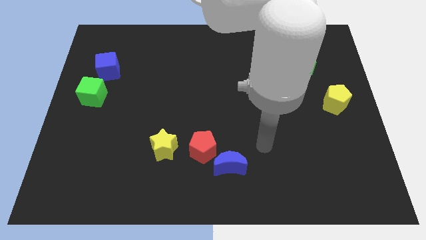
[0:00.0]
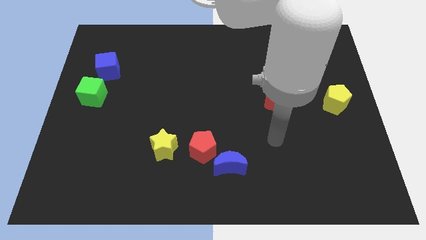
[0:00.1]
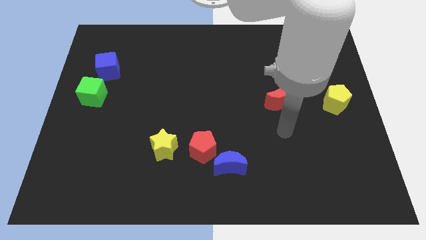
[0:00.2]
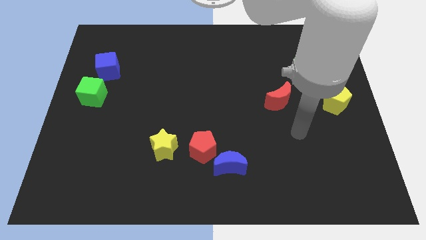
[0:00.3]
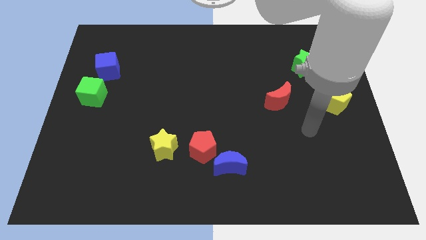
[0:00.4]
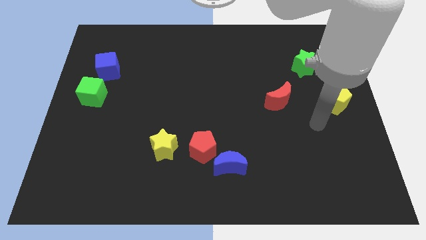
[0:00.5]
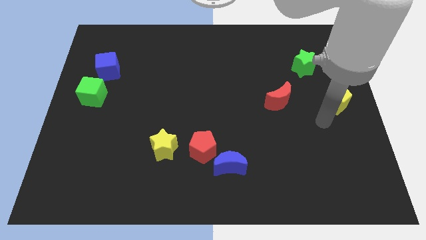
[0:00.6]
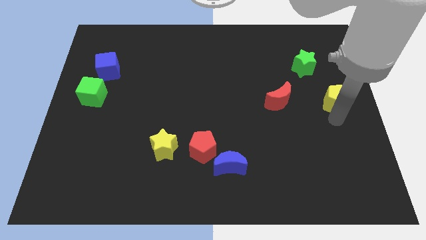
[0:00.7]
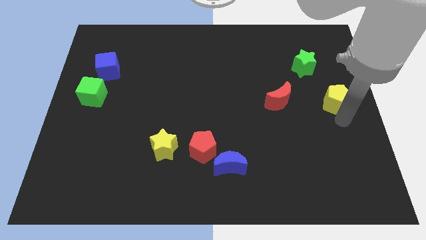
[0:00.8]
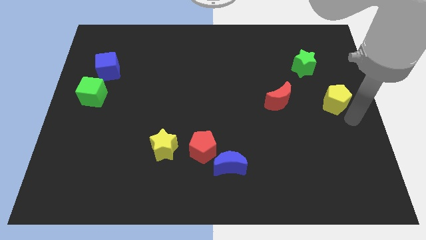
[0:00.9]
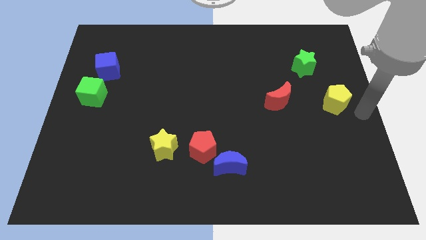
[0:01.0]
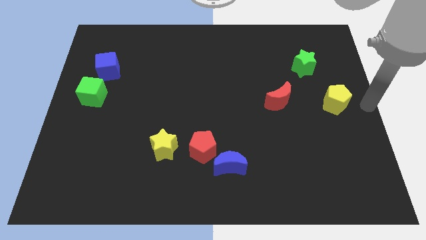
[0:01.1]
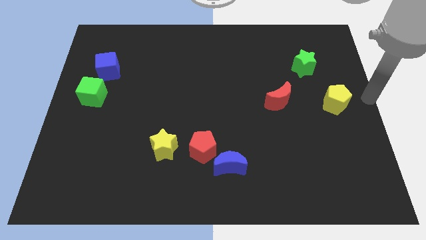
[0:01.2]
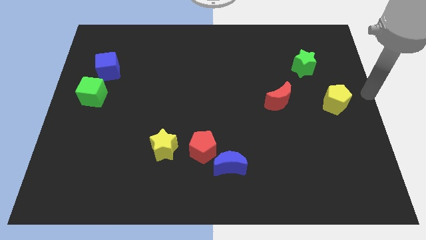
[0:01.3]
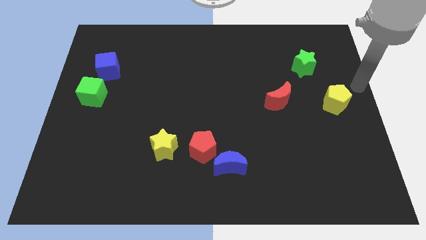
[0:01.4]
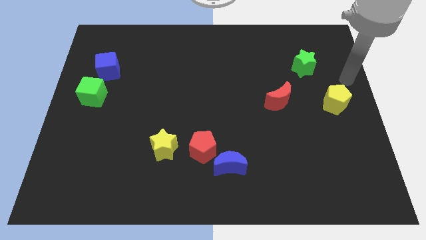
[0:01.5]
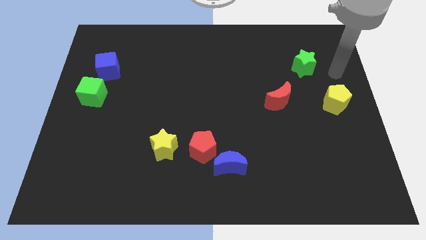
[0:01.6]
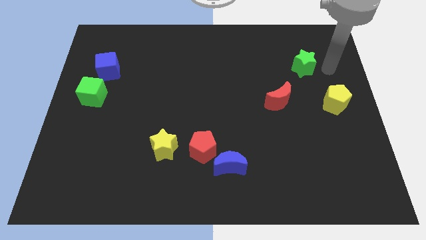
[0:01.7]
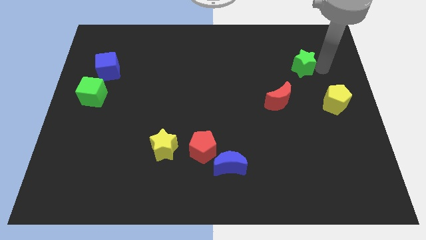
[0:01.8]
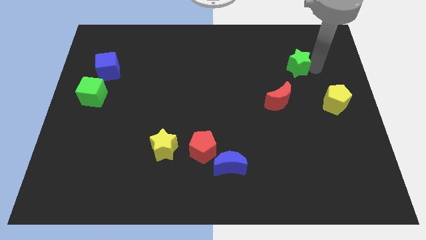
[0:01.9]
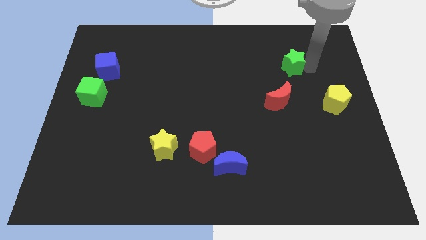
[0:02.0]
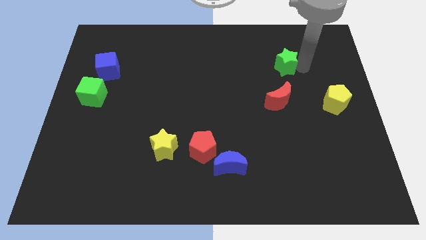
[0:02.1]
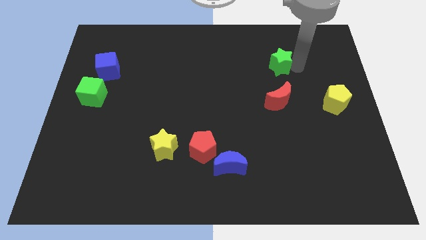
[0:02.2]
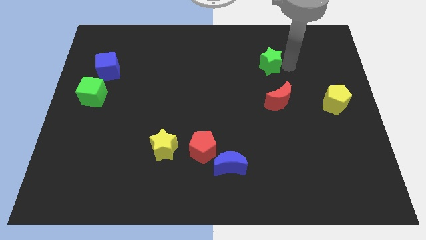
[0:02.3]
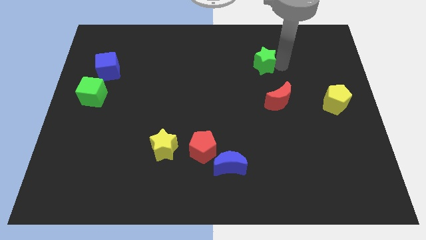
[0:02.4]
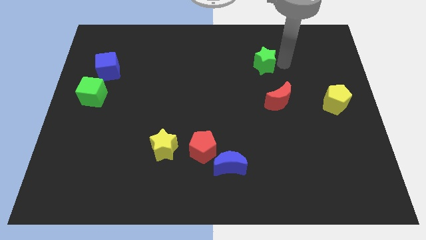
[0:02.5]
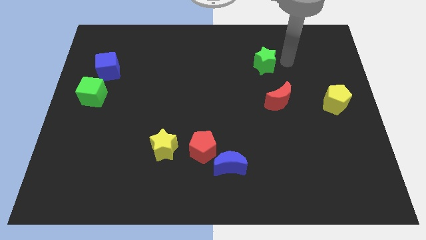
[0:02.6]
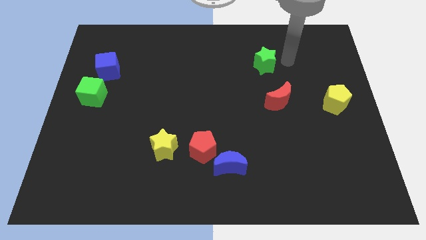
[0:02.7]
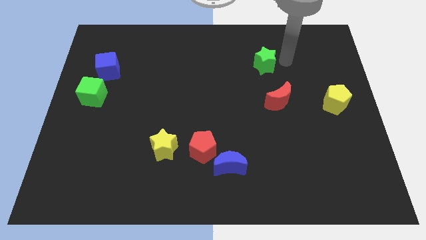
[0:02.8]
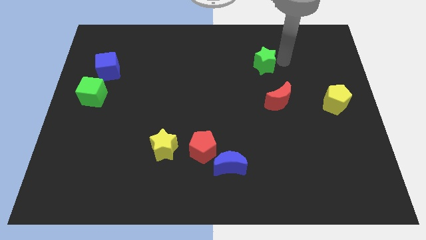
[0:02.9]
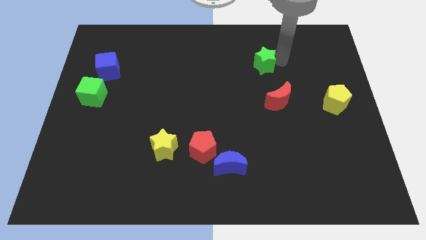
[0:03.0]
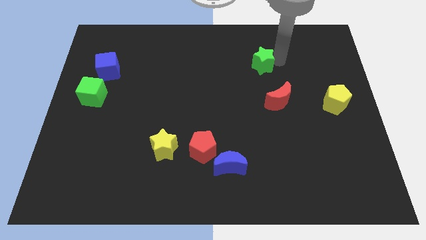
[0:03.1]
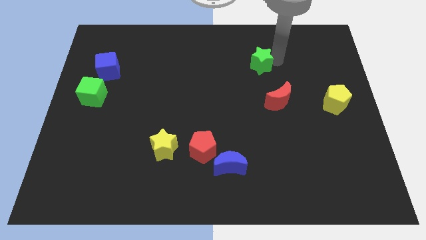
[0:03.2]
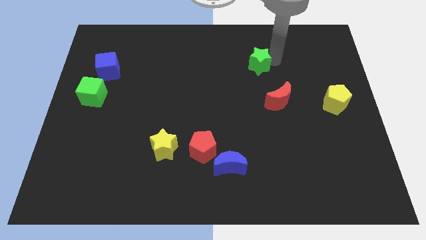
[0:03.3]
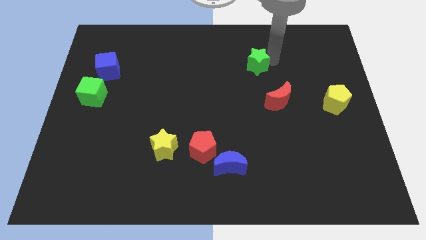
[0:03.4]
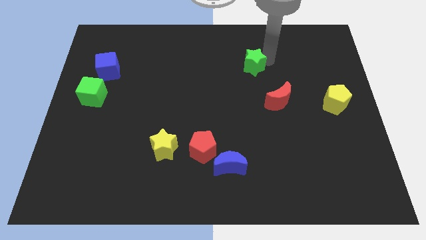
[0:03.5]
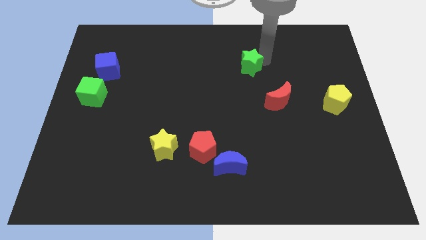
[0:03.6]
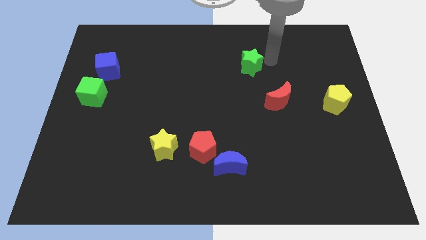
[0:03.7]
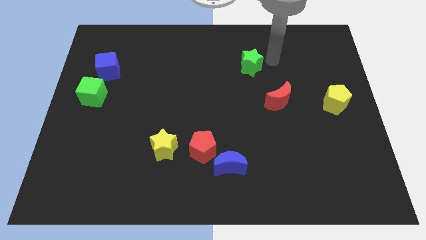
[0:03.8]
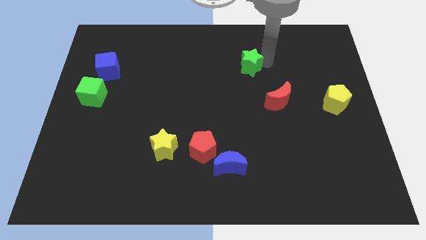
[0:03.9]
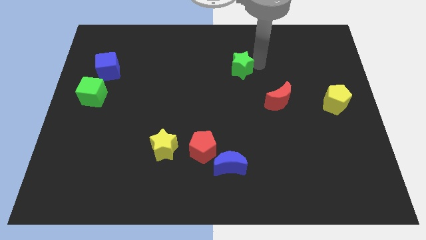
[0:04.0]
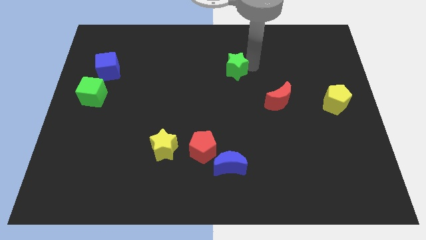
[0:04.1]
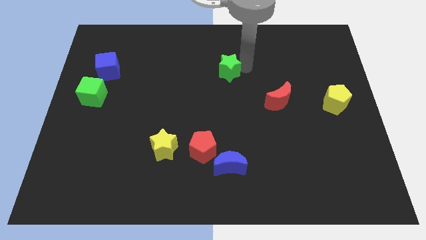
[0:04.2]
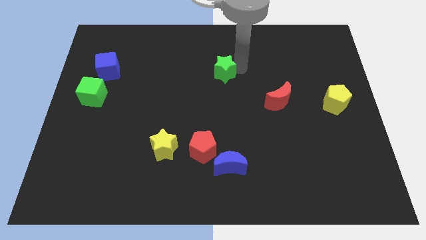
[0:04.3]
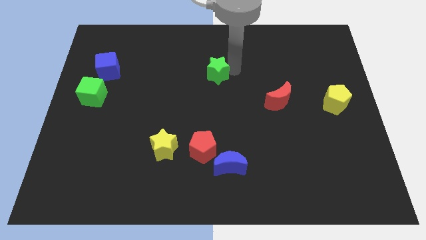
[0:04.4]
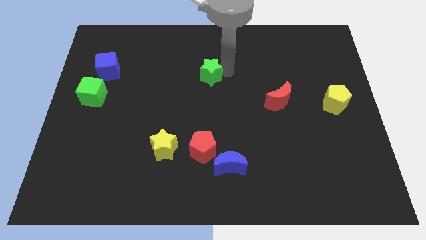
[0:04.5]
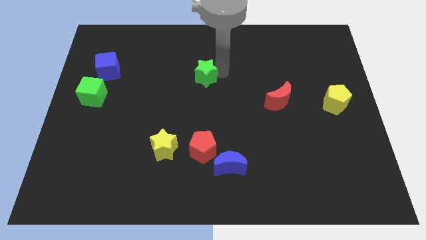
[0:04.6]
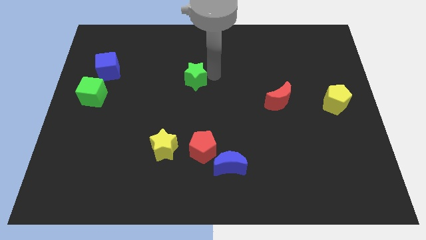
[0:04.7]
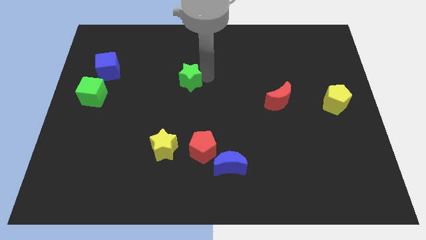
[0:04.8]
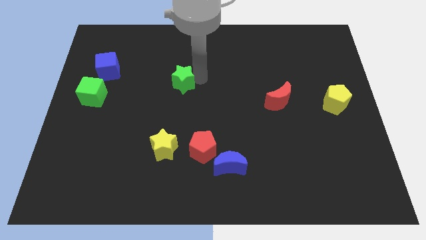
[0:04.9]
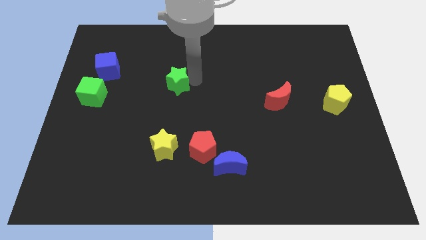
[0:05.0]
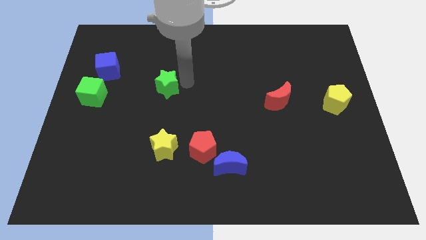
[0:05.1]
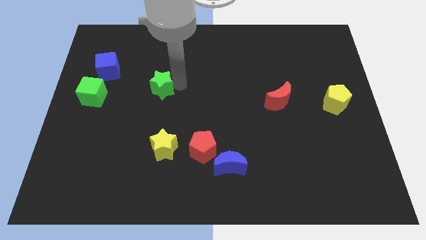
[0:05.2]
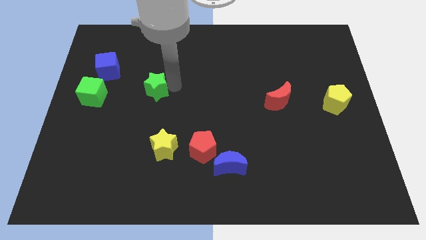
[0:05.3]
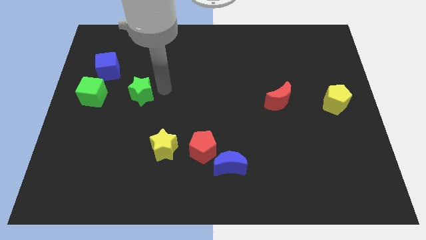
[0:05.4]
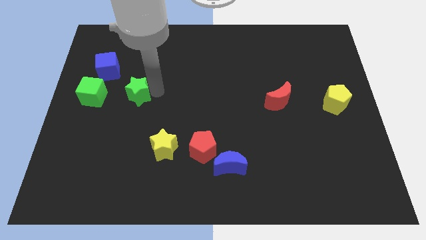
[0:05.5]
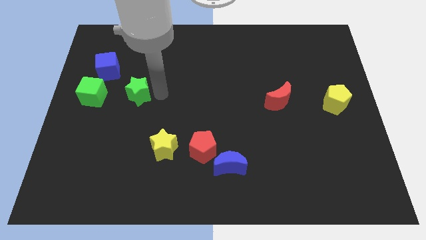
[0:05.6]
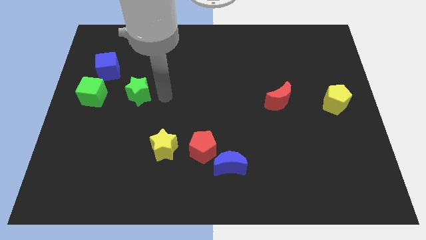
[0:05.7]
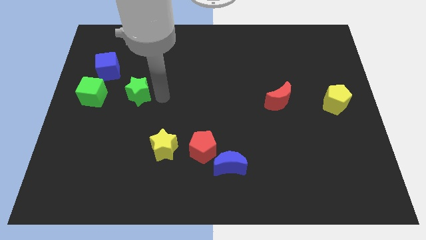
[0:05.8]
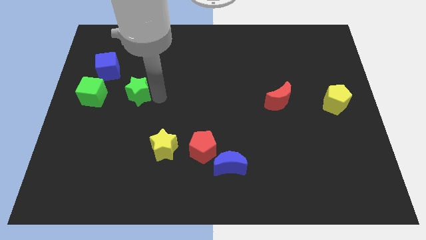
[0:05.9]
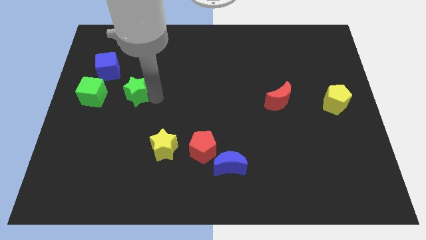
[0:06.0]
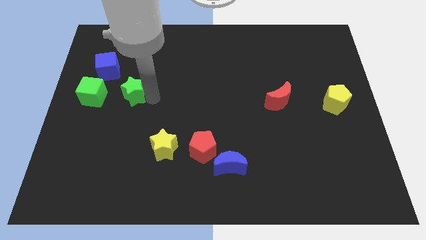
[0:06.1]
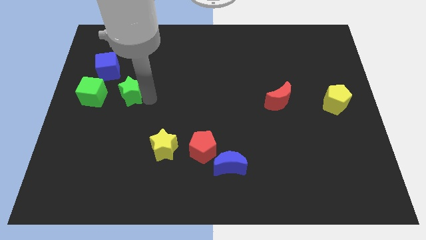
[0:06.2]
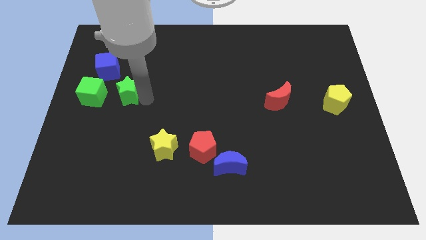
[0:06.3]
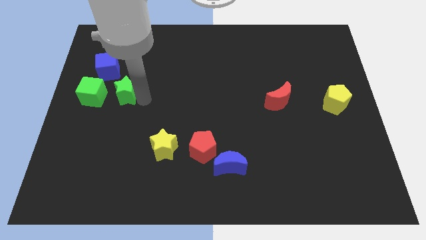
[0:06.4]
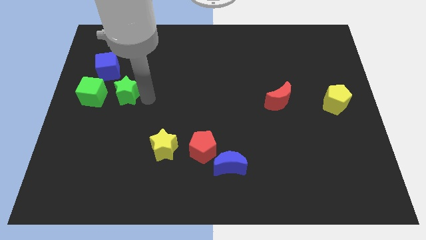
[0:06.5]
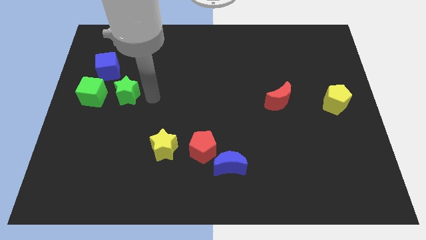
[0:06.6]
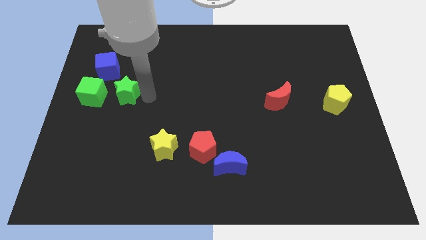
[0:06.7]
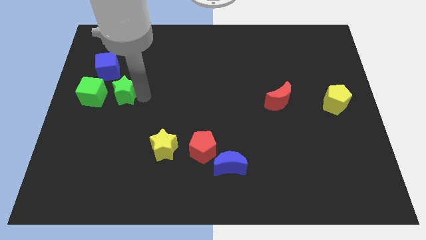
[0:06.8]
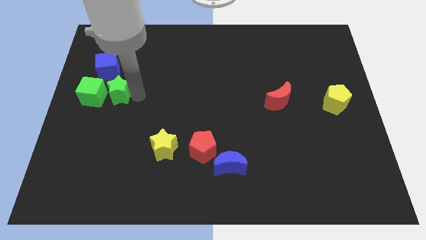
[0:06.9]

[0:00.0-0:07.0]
move the green star towards the green cube
